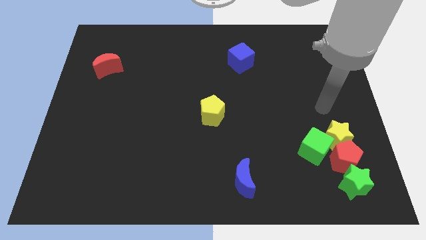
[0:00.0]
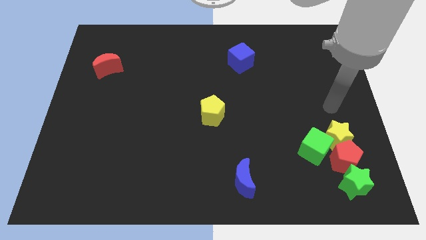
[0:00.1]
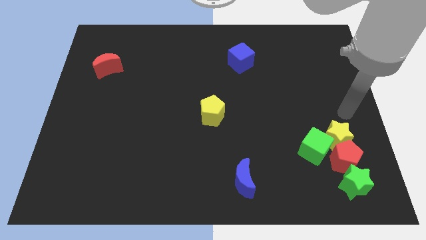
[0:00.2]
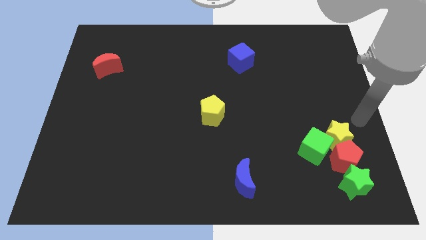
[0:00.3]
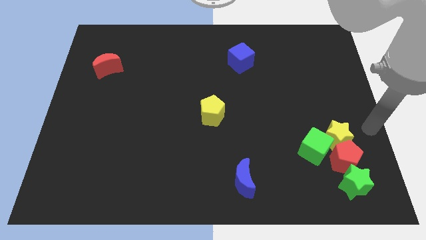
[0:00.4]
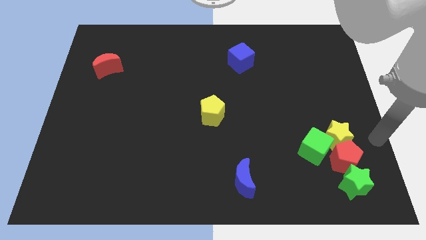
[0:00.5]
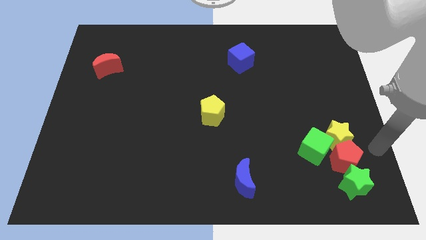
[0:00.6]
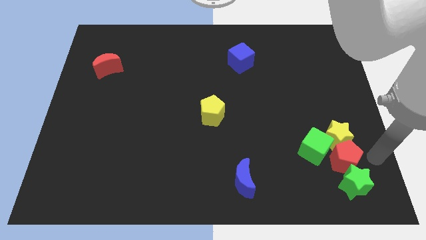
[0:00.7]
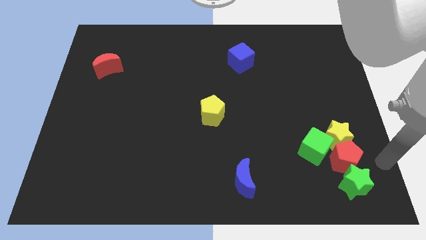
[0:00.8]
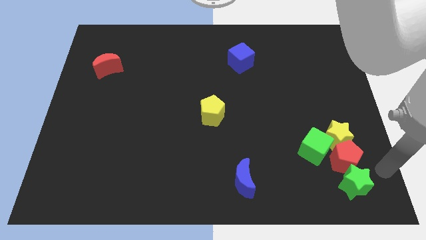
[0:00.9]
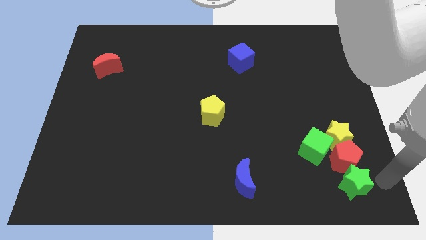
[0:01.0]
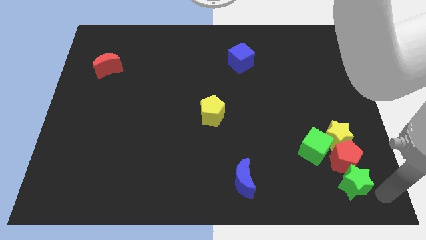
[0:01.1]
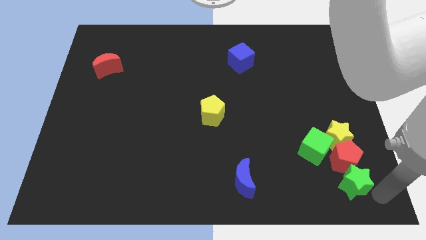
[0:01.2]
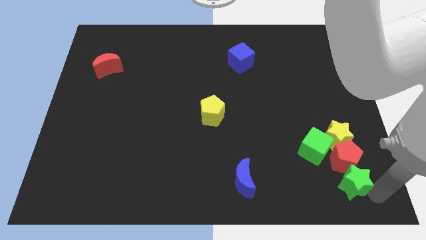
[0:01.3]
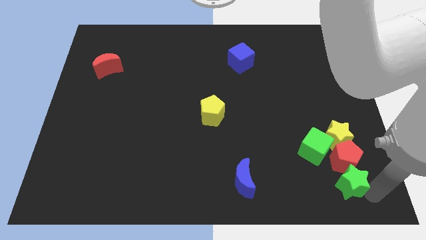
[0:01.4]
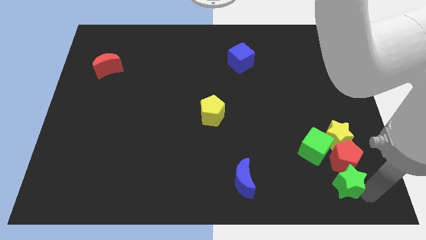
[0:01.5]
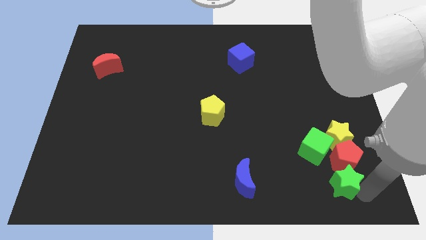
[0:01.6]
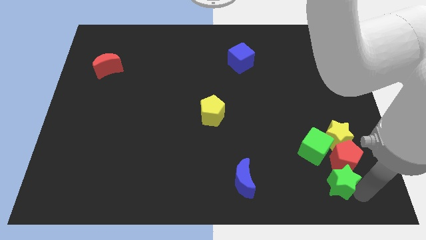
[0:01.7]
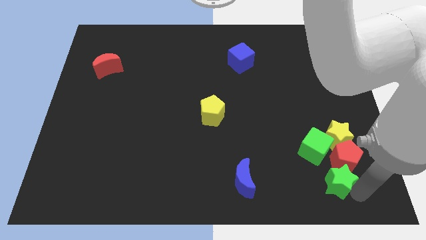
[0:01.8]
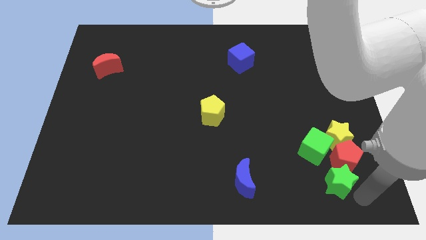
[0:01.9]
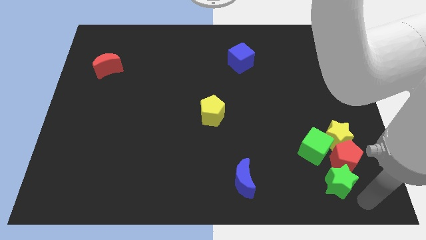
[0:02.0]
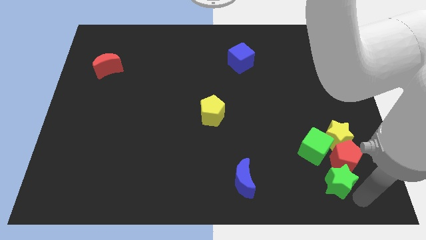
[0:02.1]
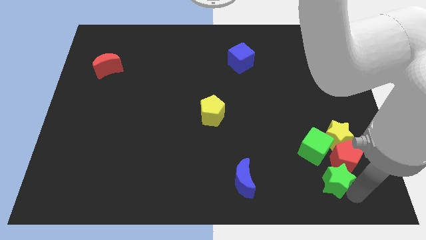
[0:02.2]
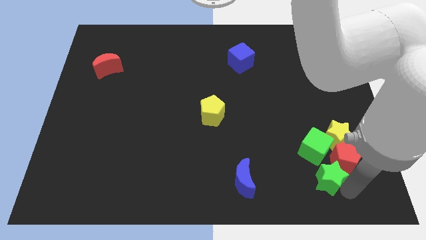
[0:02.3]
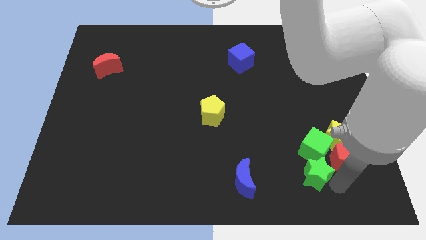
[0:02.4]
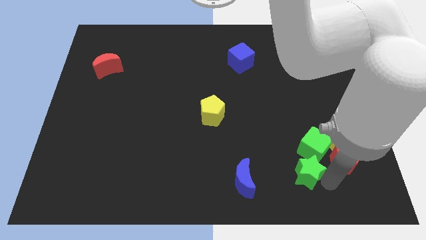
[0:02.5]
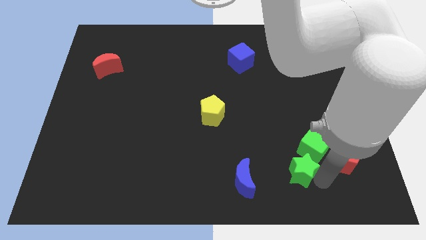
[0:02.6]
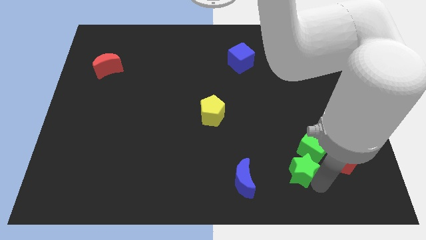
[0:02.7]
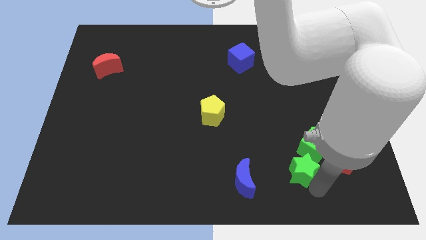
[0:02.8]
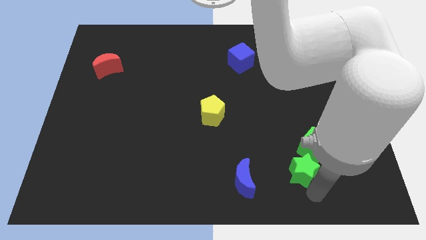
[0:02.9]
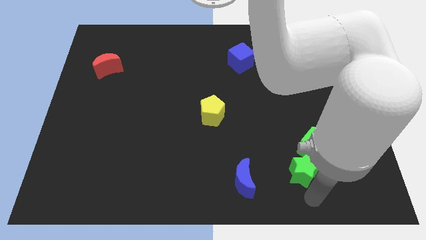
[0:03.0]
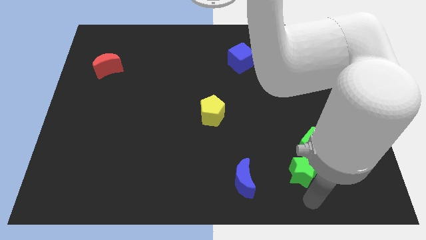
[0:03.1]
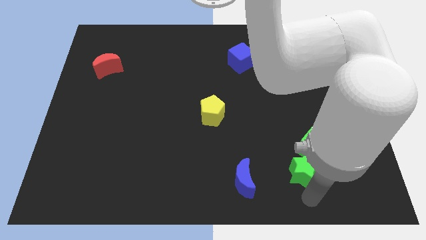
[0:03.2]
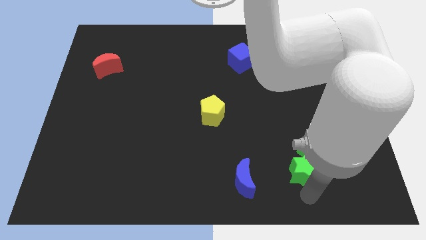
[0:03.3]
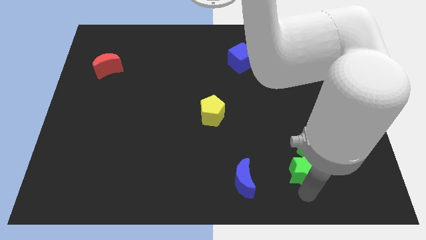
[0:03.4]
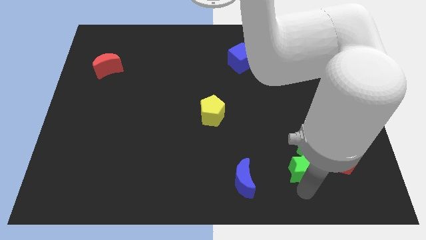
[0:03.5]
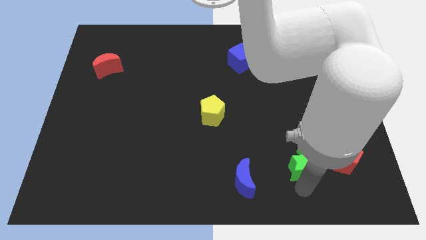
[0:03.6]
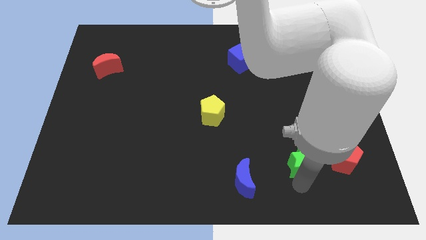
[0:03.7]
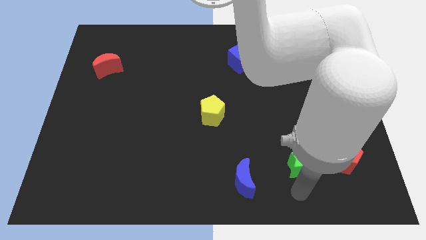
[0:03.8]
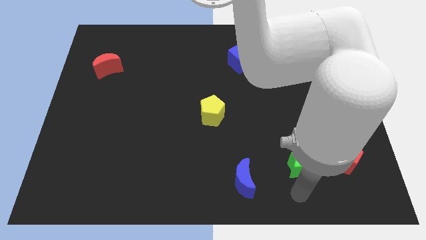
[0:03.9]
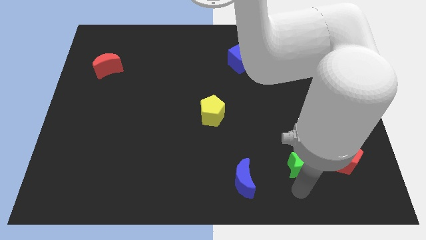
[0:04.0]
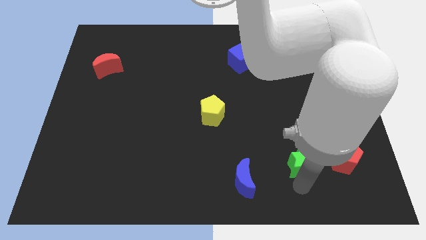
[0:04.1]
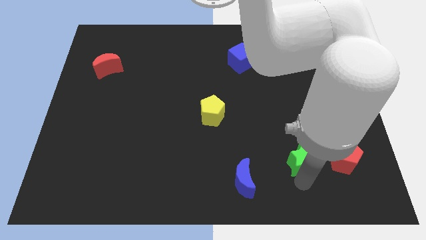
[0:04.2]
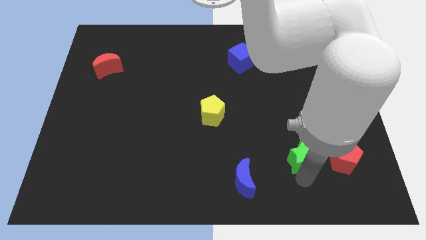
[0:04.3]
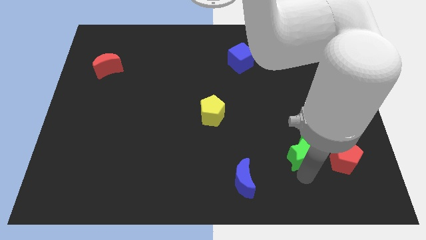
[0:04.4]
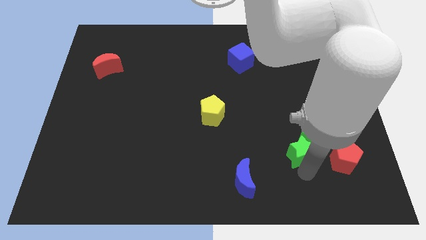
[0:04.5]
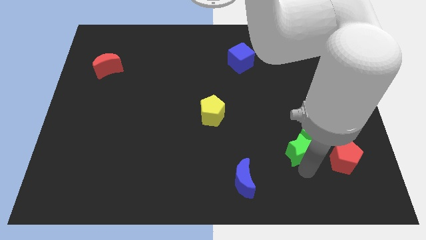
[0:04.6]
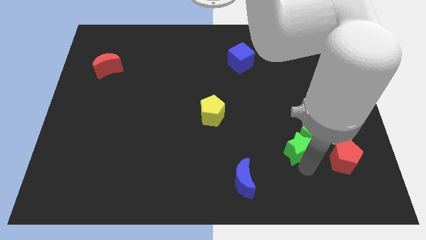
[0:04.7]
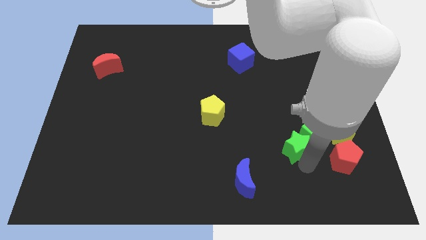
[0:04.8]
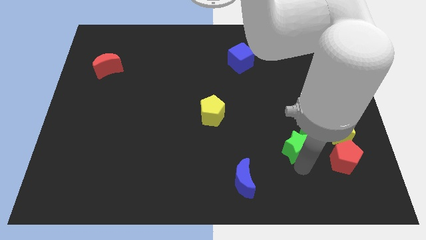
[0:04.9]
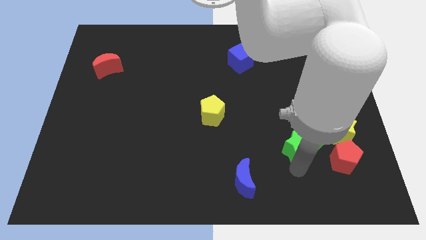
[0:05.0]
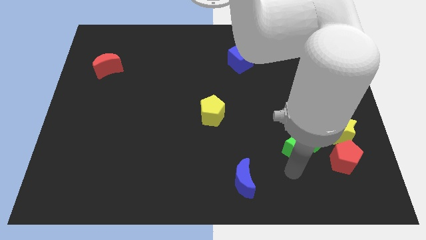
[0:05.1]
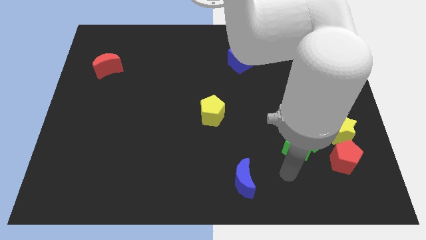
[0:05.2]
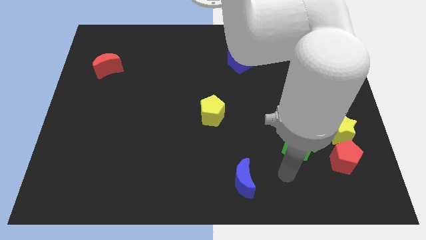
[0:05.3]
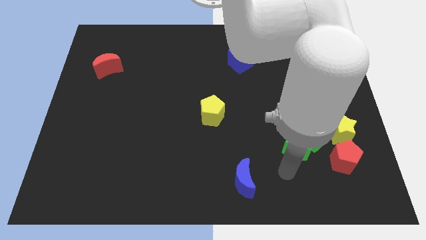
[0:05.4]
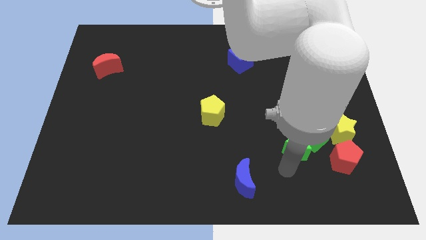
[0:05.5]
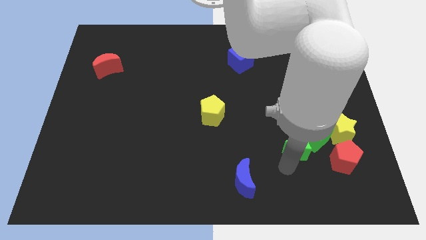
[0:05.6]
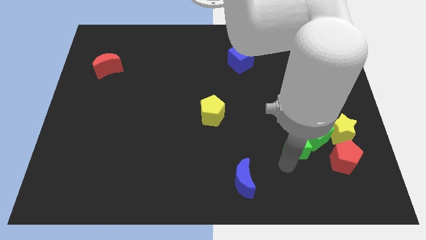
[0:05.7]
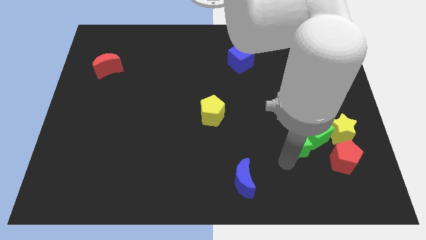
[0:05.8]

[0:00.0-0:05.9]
push the green star to the top left side of the red pentagon

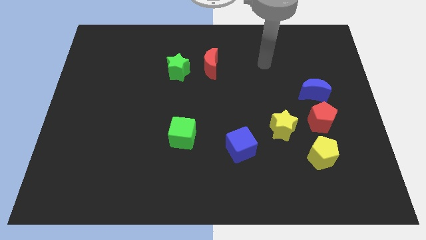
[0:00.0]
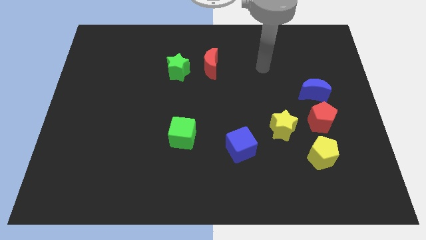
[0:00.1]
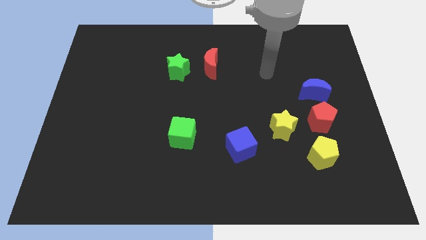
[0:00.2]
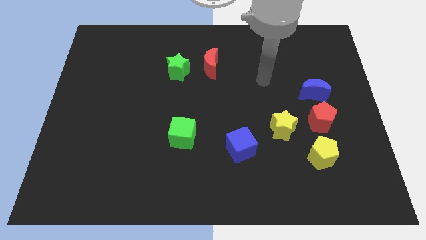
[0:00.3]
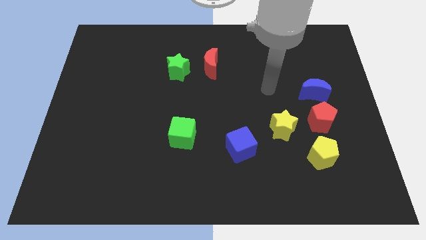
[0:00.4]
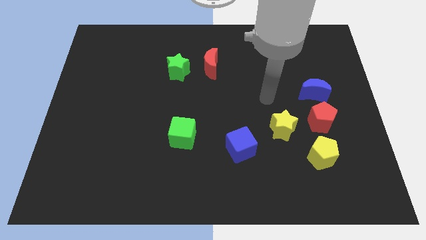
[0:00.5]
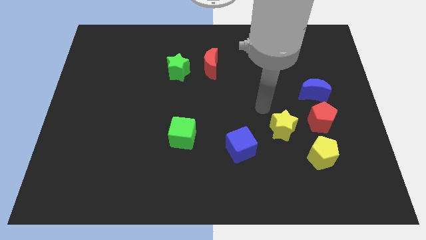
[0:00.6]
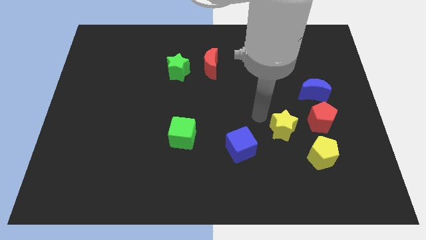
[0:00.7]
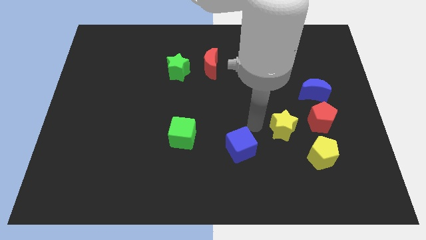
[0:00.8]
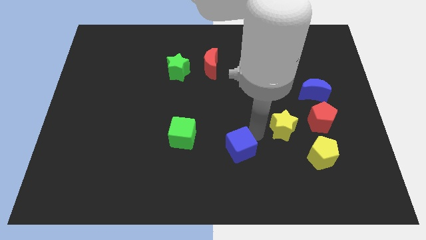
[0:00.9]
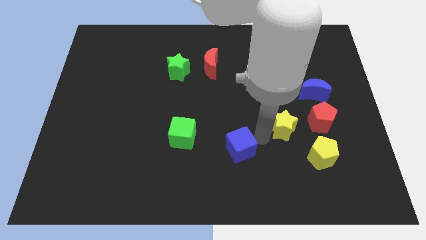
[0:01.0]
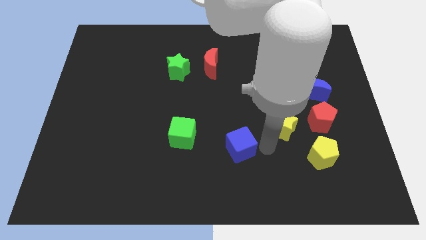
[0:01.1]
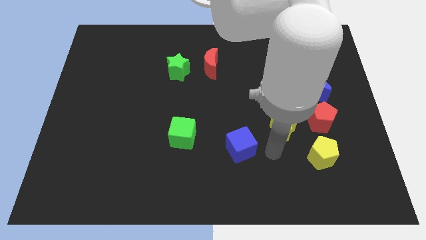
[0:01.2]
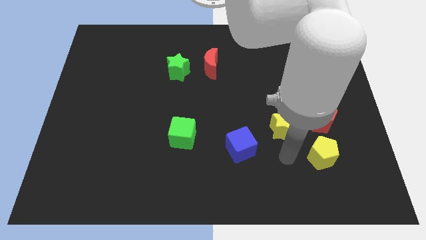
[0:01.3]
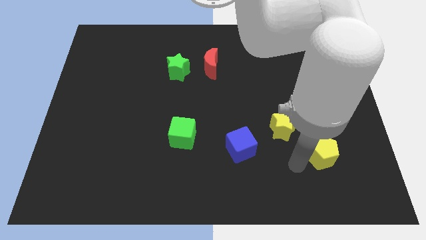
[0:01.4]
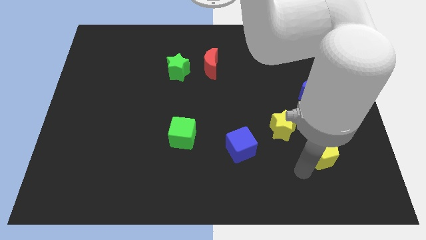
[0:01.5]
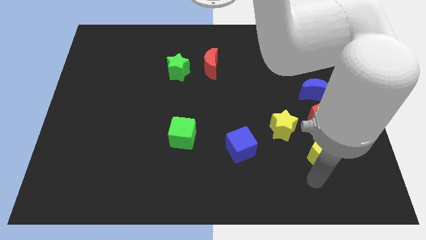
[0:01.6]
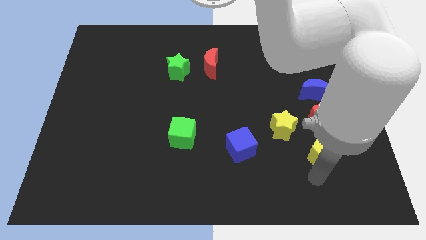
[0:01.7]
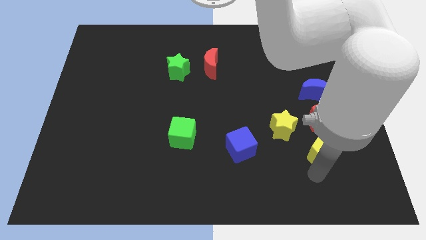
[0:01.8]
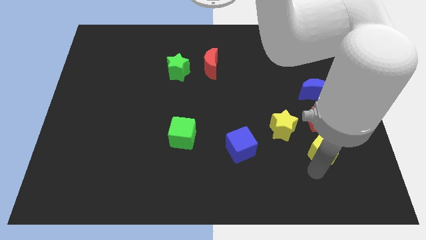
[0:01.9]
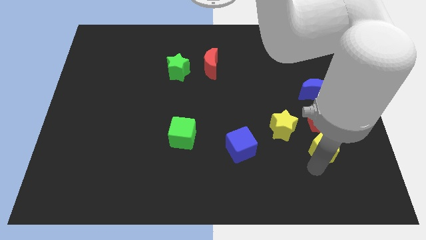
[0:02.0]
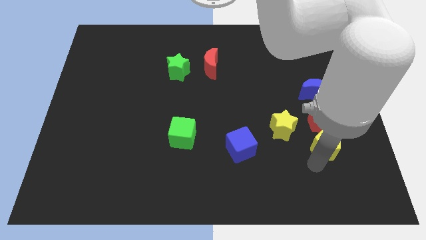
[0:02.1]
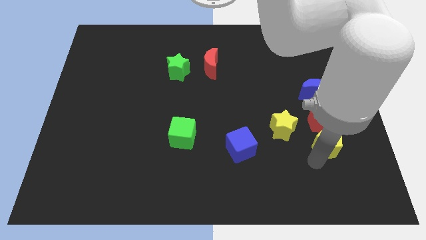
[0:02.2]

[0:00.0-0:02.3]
slide the yellow pentagon to the right side of the yellow star
